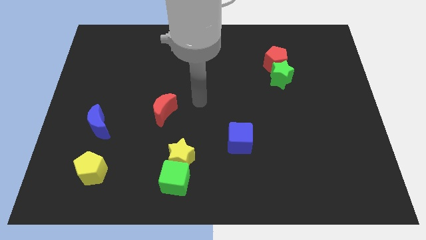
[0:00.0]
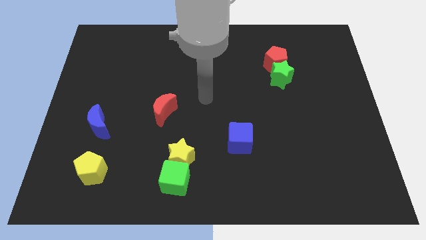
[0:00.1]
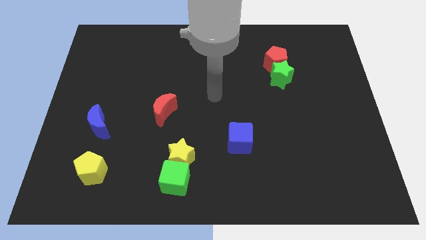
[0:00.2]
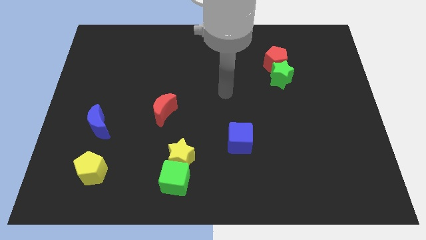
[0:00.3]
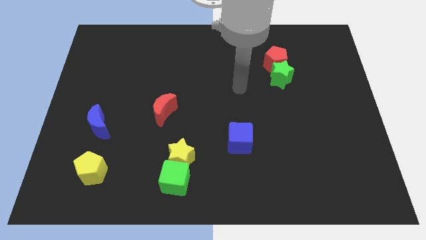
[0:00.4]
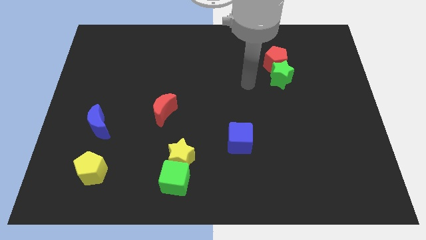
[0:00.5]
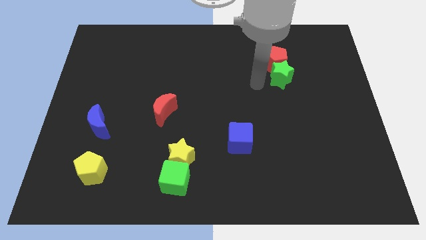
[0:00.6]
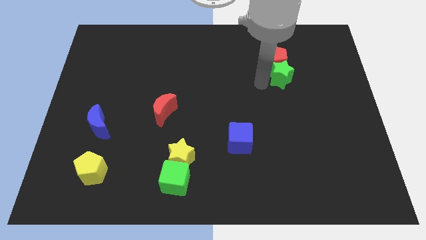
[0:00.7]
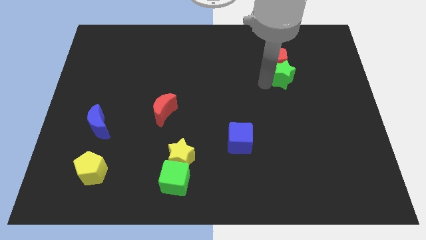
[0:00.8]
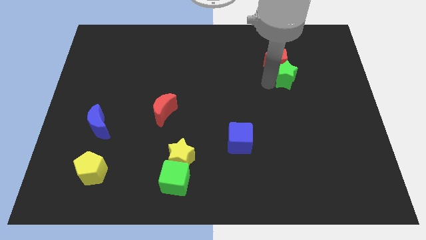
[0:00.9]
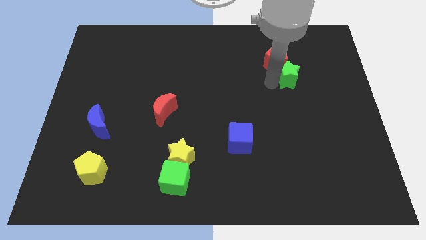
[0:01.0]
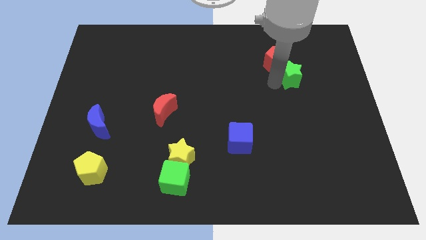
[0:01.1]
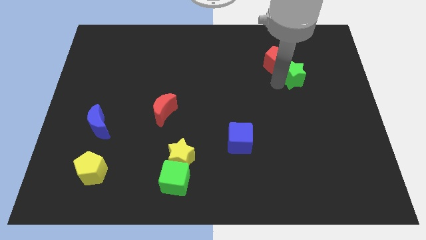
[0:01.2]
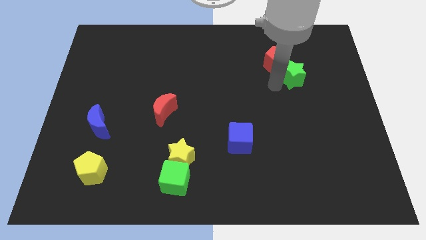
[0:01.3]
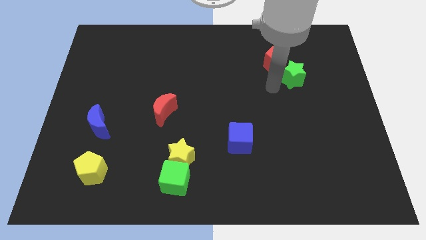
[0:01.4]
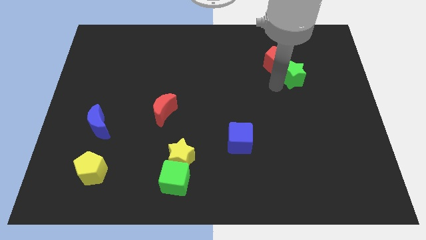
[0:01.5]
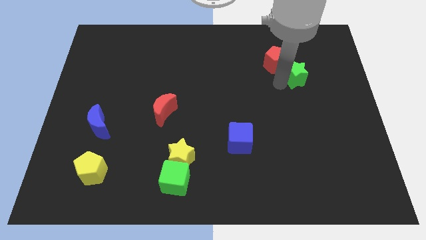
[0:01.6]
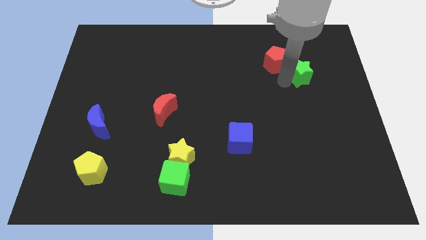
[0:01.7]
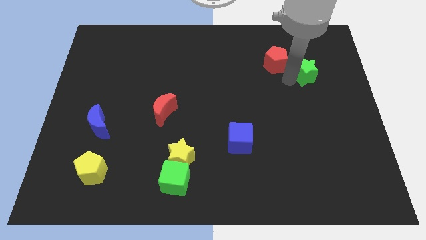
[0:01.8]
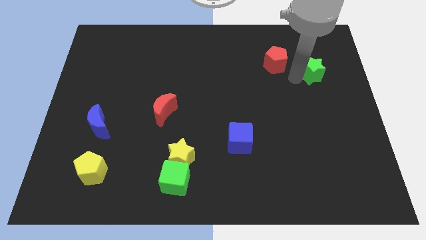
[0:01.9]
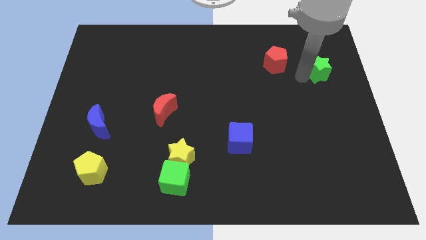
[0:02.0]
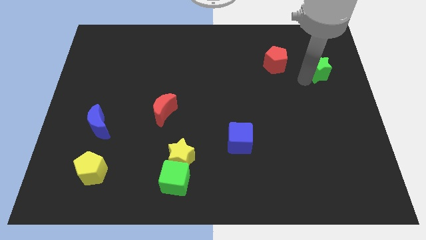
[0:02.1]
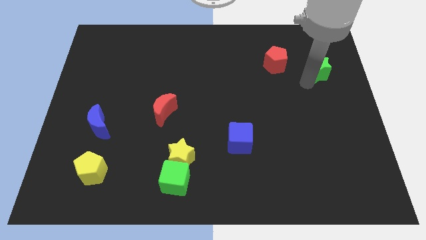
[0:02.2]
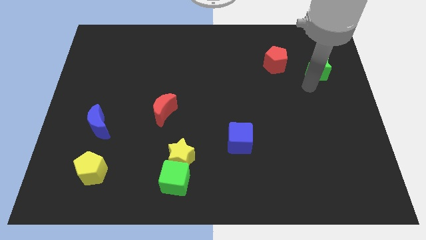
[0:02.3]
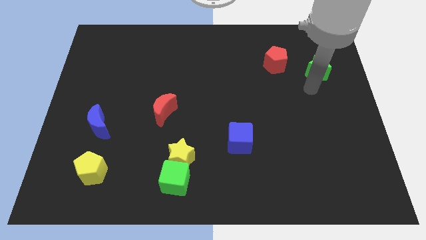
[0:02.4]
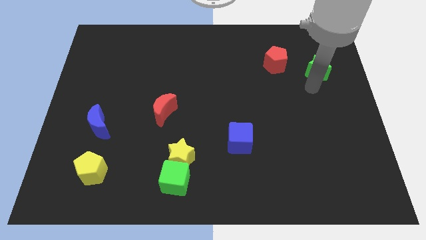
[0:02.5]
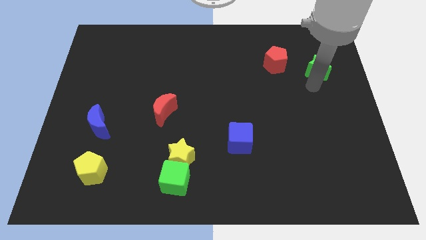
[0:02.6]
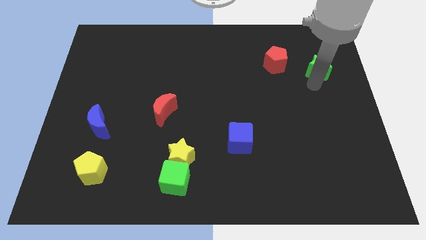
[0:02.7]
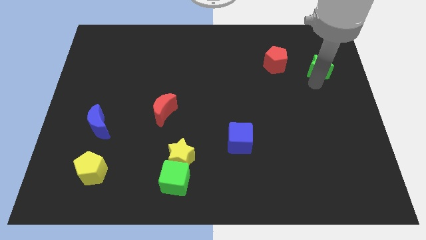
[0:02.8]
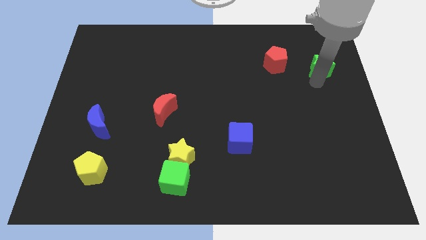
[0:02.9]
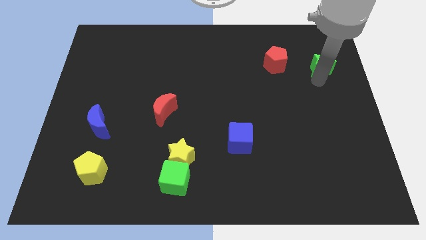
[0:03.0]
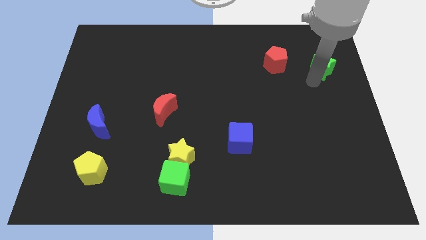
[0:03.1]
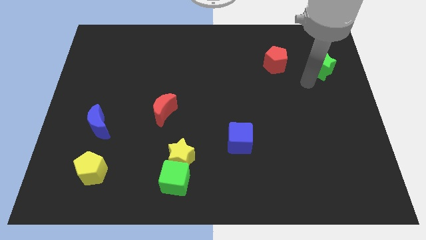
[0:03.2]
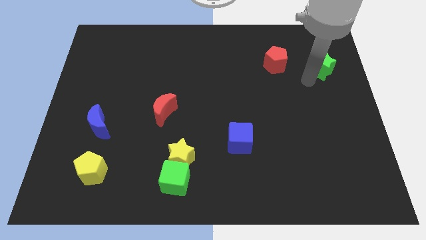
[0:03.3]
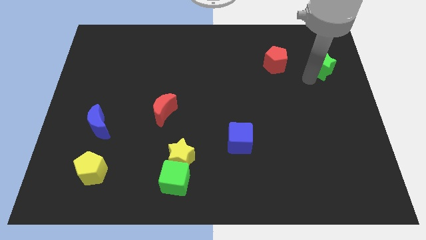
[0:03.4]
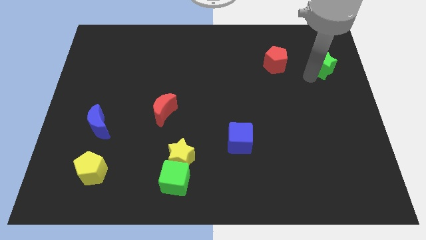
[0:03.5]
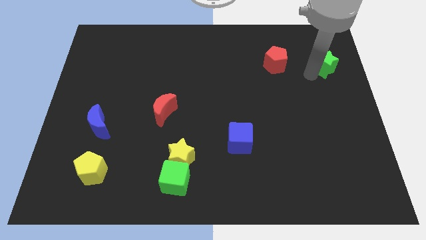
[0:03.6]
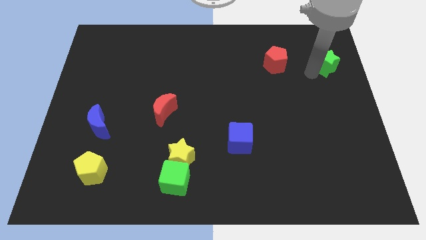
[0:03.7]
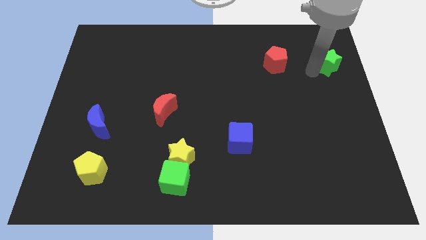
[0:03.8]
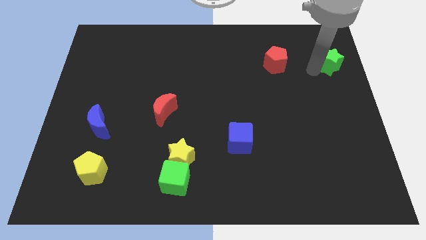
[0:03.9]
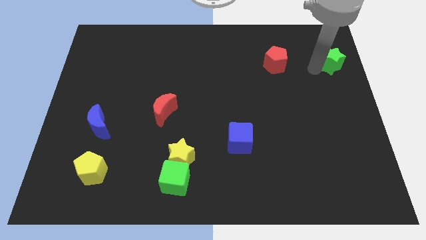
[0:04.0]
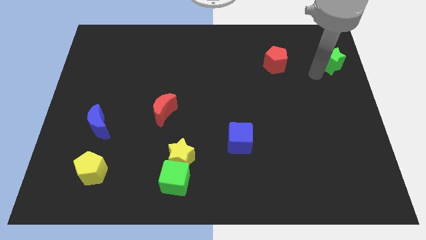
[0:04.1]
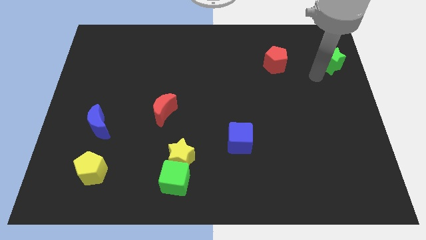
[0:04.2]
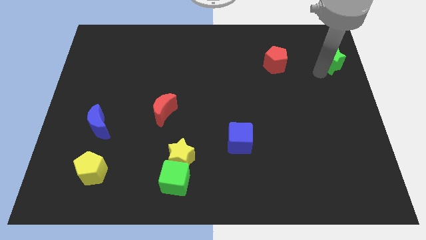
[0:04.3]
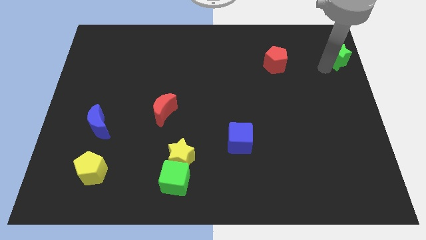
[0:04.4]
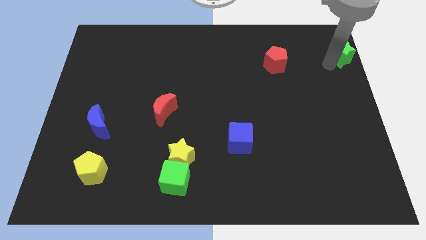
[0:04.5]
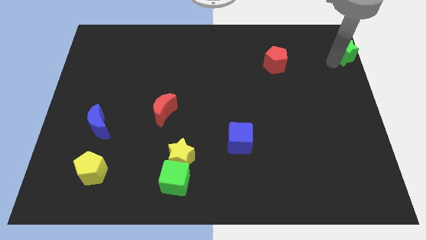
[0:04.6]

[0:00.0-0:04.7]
slide the green star to the top right

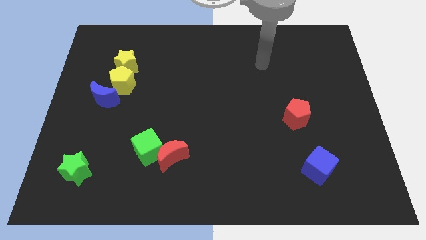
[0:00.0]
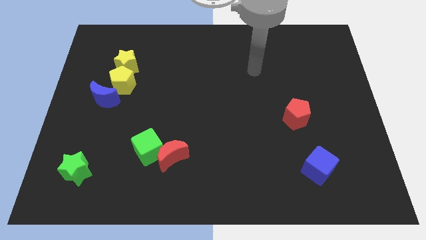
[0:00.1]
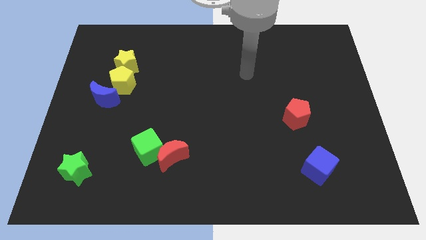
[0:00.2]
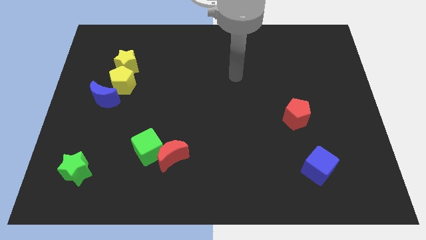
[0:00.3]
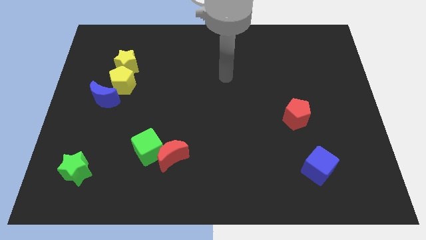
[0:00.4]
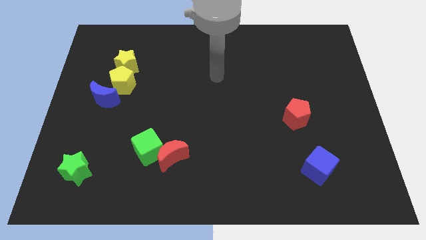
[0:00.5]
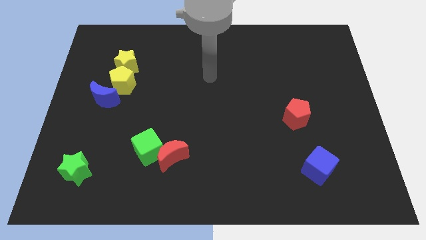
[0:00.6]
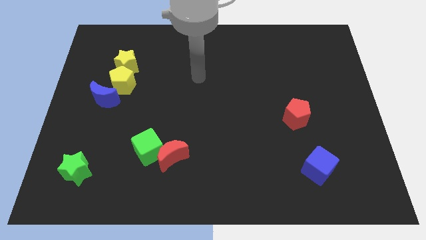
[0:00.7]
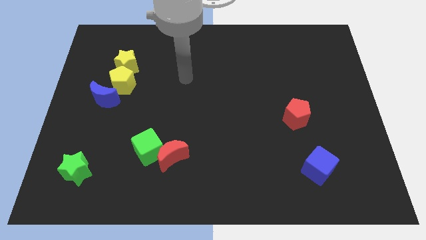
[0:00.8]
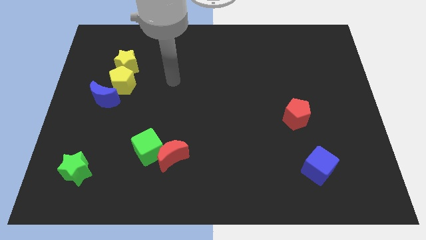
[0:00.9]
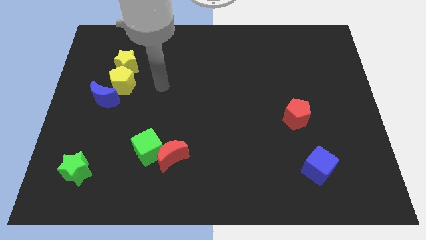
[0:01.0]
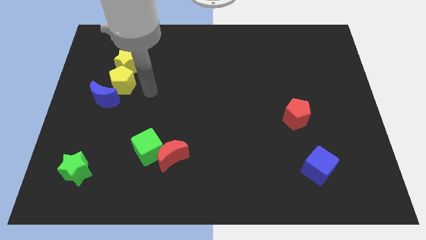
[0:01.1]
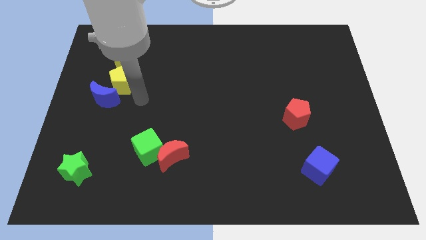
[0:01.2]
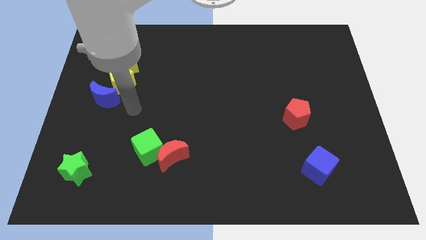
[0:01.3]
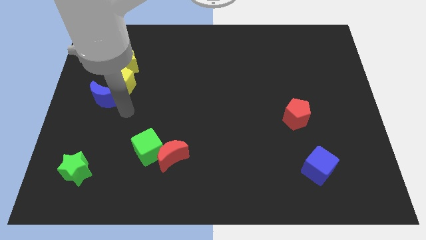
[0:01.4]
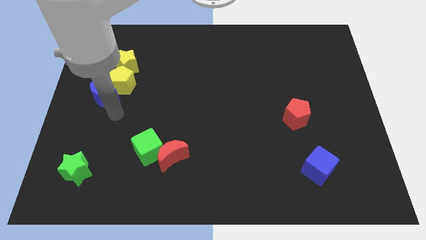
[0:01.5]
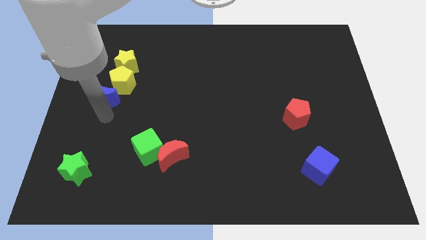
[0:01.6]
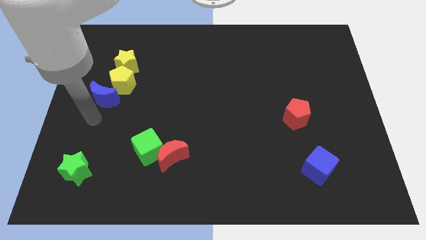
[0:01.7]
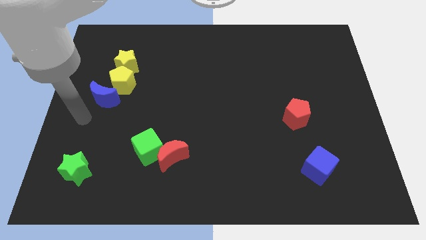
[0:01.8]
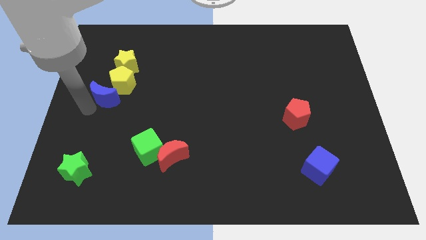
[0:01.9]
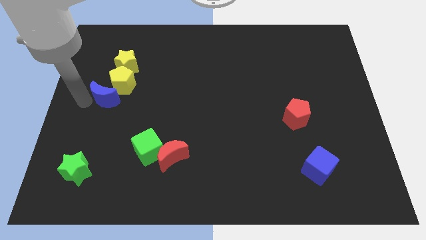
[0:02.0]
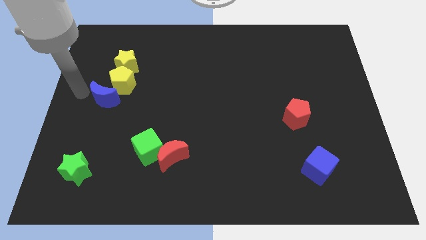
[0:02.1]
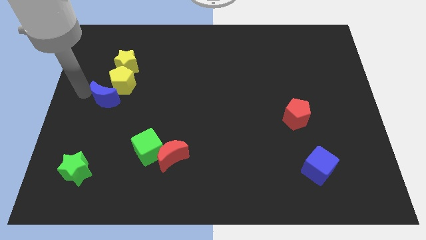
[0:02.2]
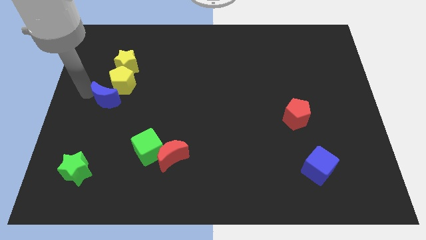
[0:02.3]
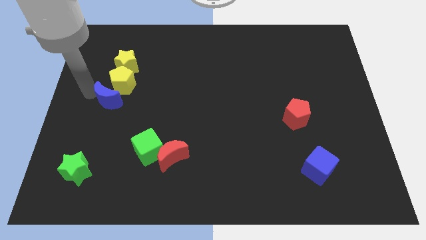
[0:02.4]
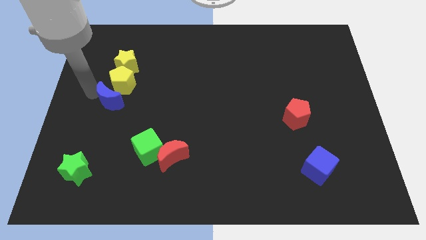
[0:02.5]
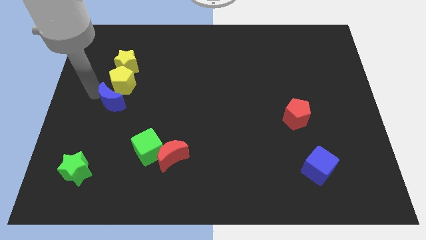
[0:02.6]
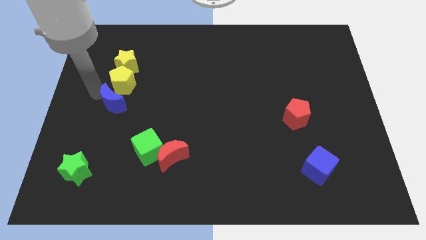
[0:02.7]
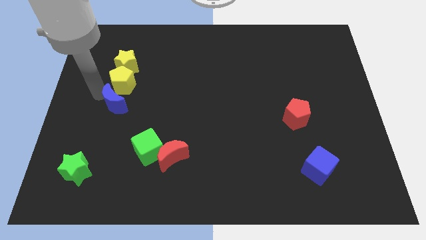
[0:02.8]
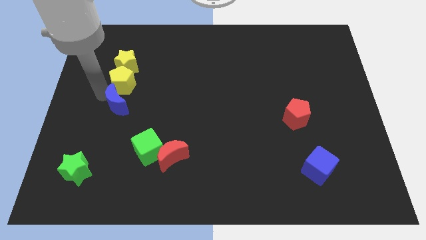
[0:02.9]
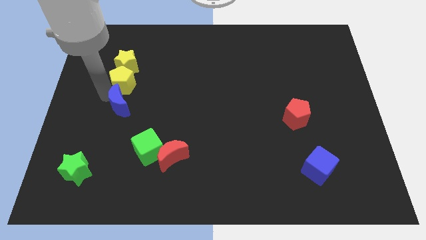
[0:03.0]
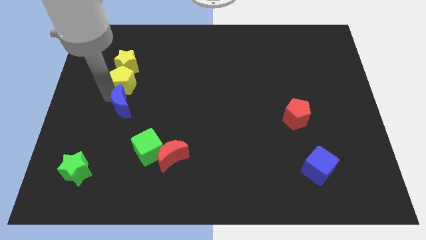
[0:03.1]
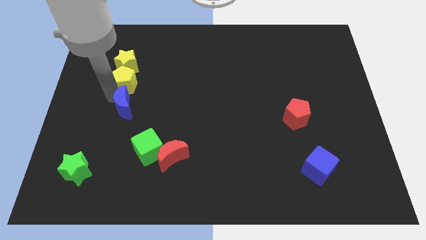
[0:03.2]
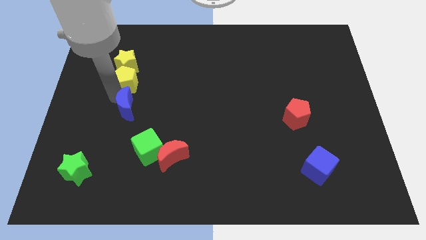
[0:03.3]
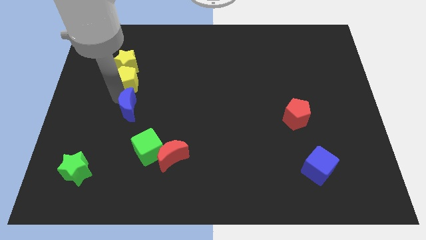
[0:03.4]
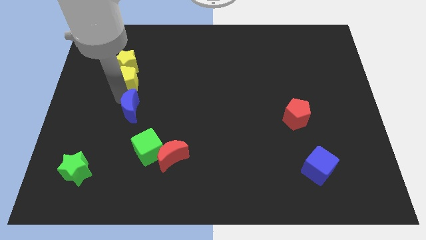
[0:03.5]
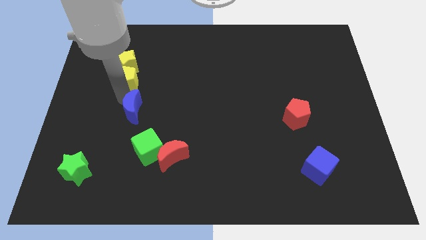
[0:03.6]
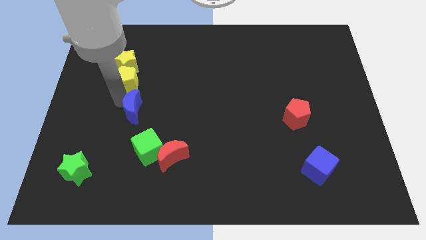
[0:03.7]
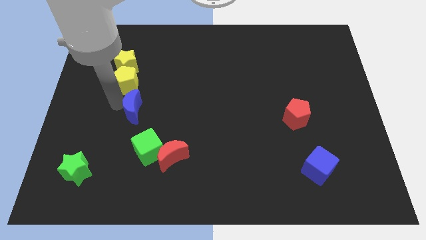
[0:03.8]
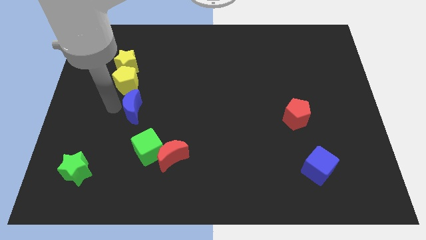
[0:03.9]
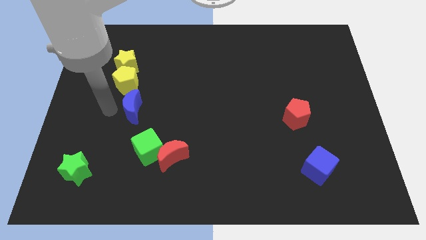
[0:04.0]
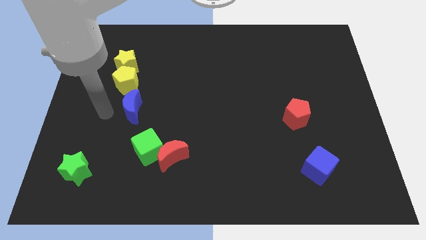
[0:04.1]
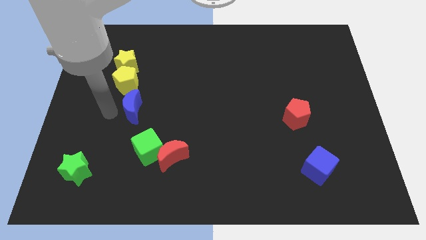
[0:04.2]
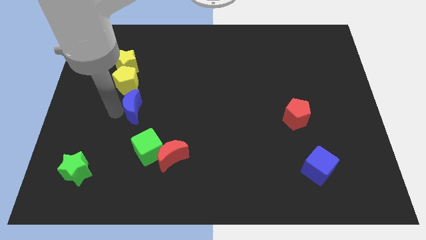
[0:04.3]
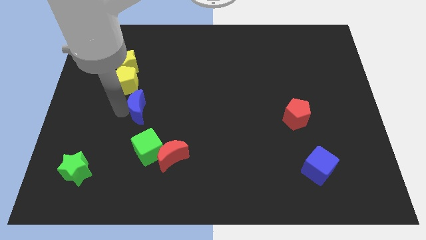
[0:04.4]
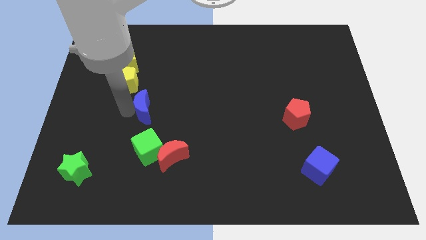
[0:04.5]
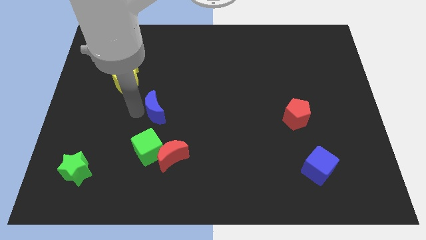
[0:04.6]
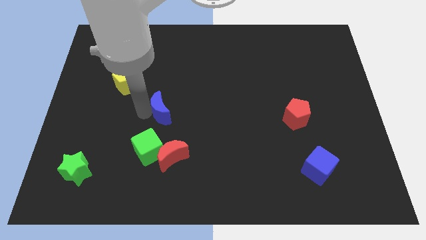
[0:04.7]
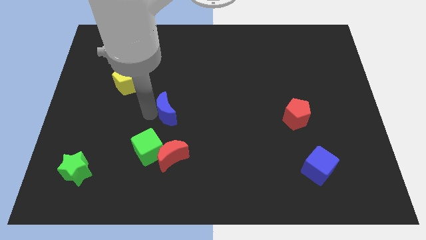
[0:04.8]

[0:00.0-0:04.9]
slide the blue moon to the middle
